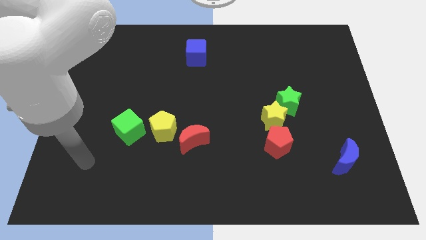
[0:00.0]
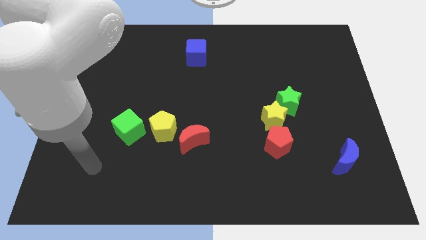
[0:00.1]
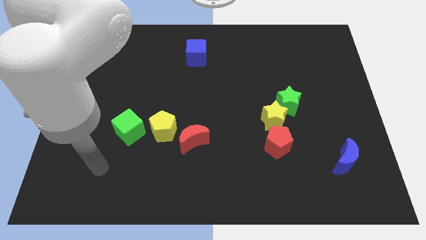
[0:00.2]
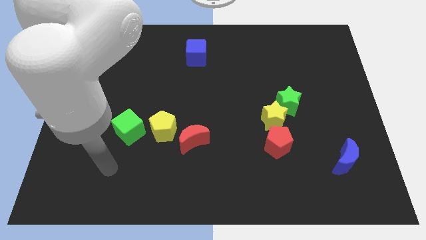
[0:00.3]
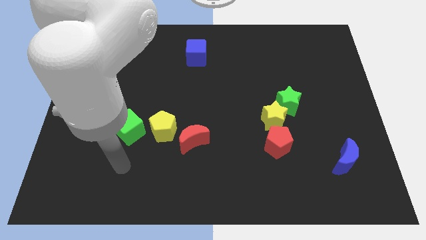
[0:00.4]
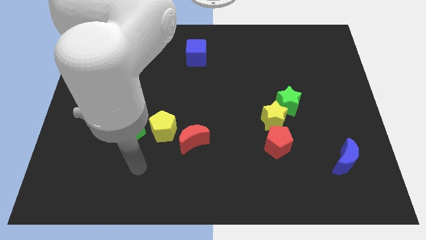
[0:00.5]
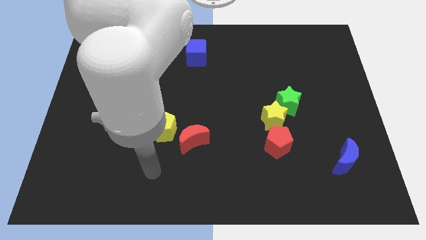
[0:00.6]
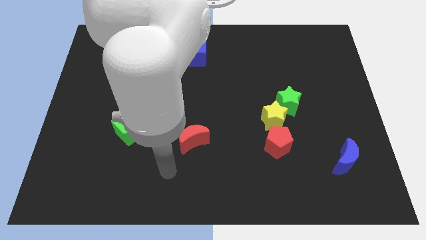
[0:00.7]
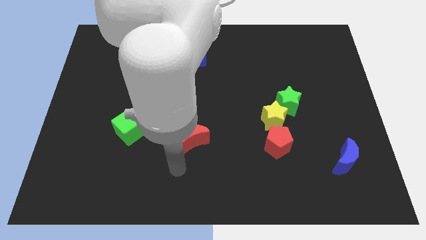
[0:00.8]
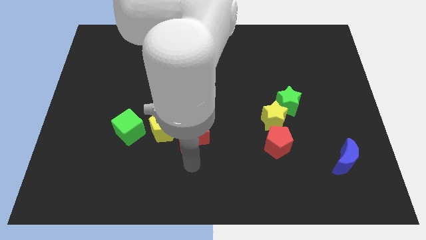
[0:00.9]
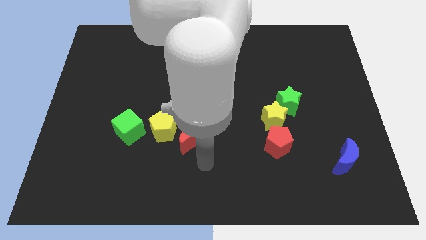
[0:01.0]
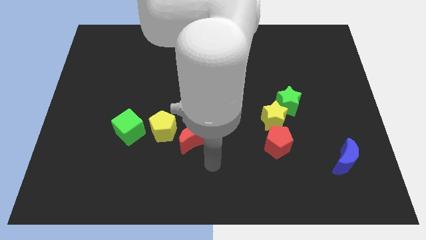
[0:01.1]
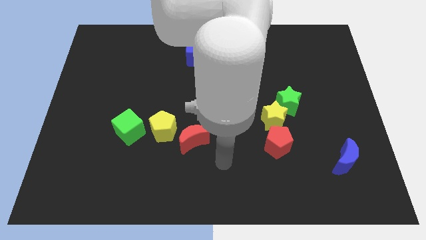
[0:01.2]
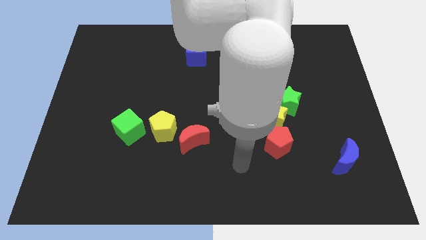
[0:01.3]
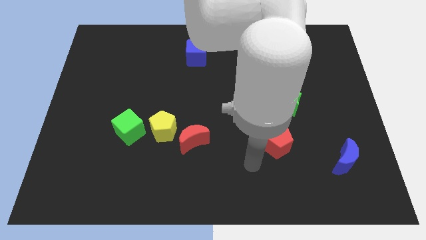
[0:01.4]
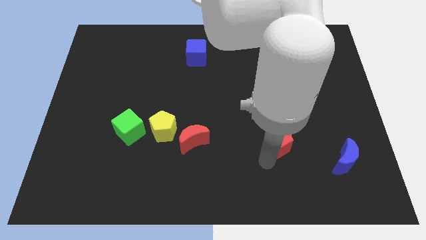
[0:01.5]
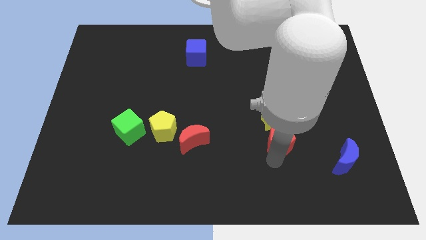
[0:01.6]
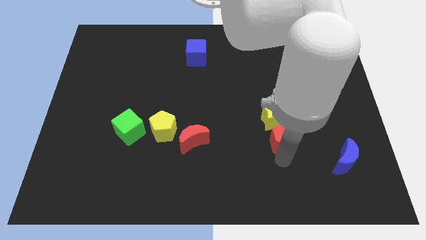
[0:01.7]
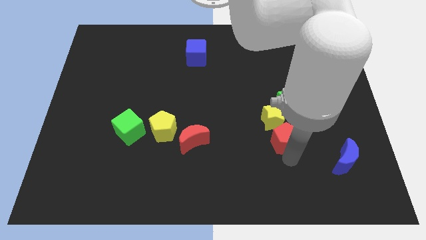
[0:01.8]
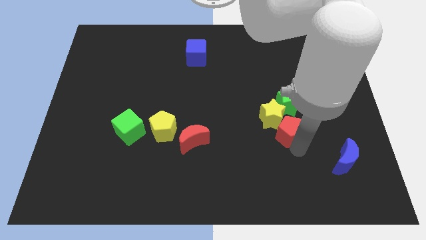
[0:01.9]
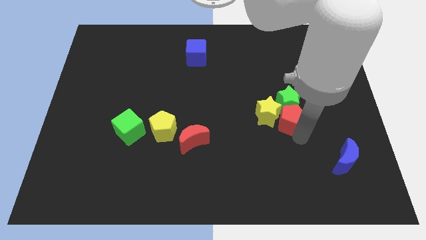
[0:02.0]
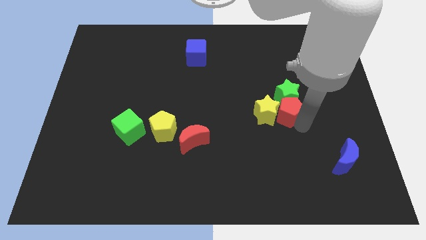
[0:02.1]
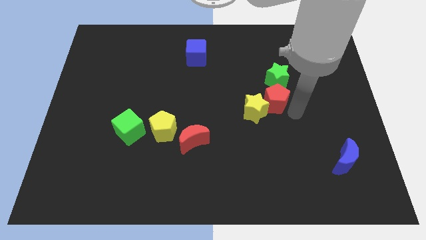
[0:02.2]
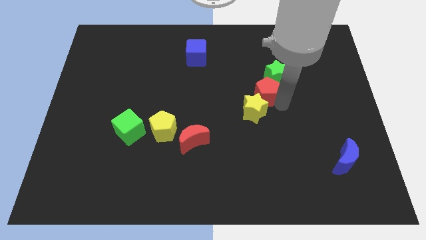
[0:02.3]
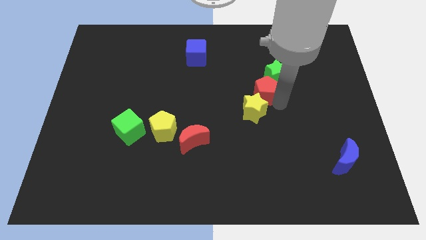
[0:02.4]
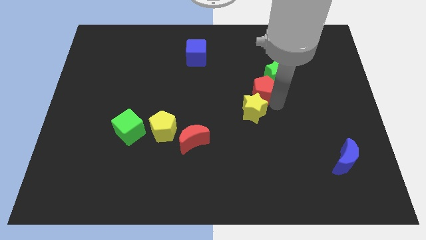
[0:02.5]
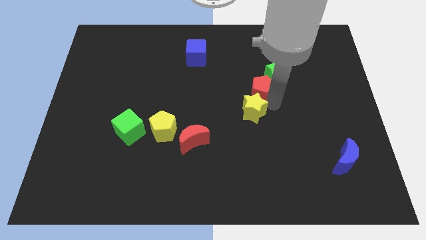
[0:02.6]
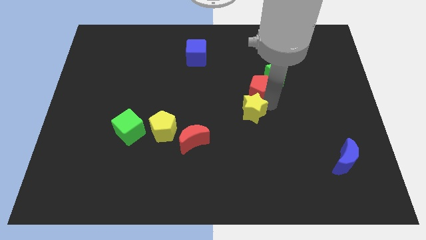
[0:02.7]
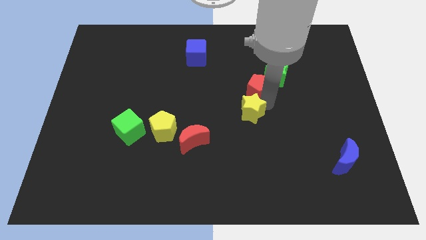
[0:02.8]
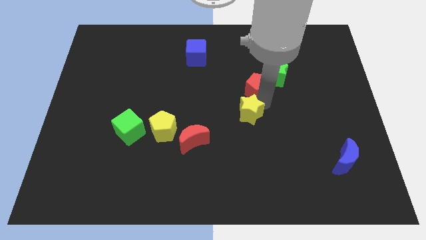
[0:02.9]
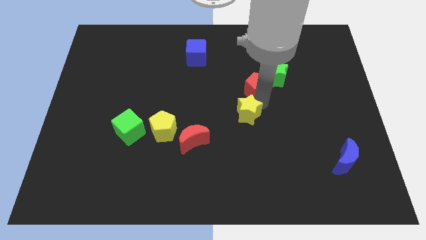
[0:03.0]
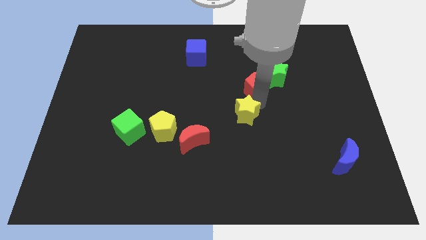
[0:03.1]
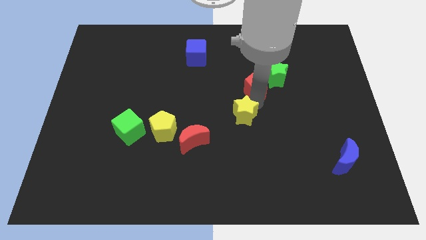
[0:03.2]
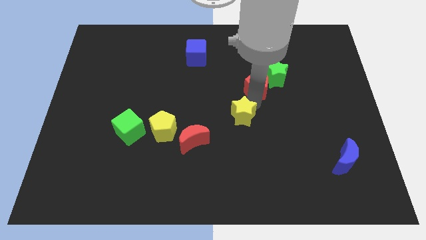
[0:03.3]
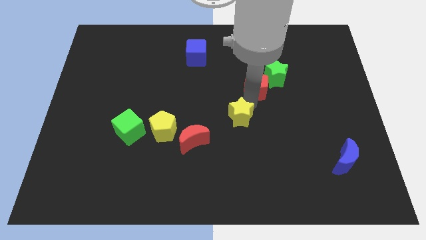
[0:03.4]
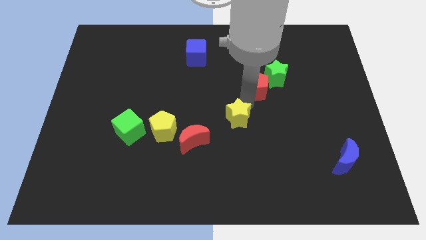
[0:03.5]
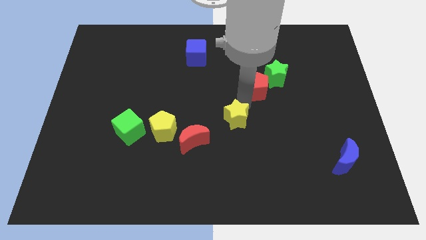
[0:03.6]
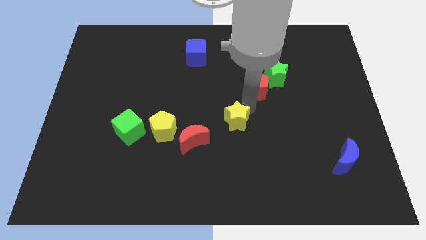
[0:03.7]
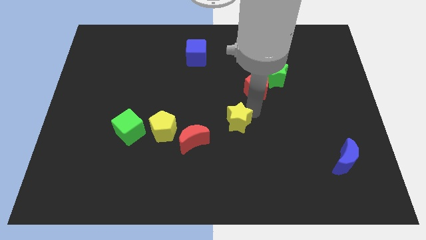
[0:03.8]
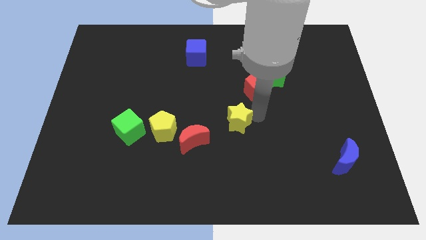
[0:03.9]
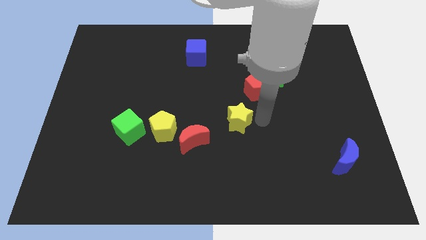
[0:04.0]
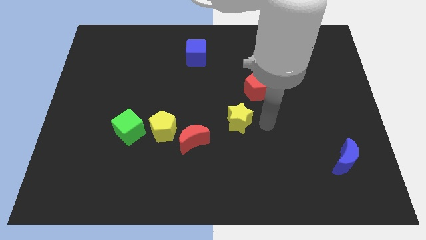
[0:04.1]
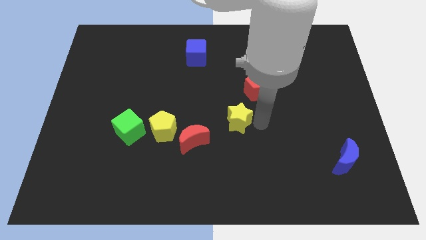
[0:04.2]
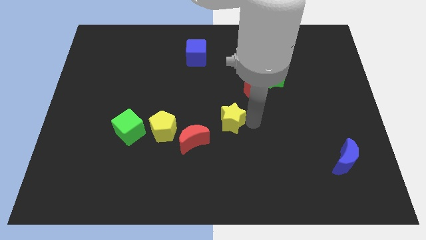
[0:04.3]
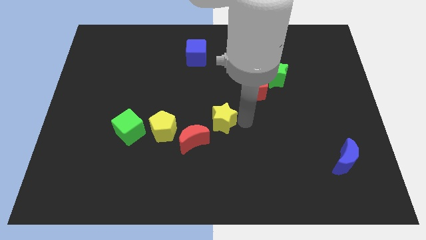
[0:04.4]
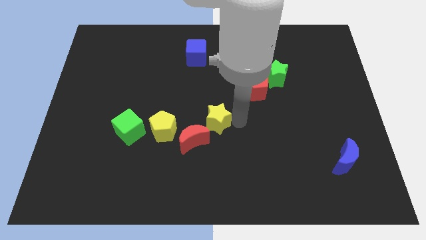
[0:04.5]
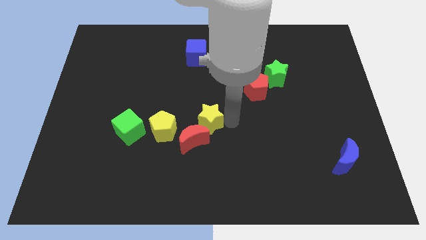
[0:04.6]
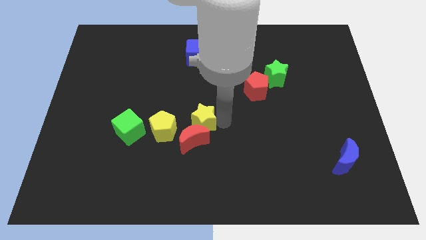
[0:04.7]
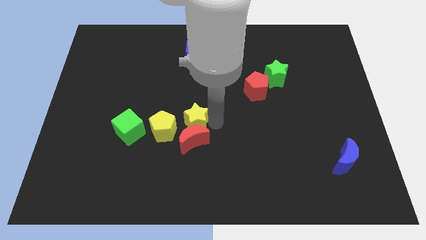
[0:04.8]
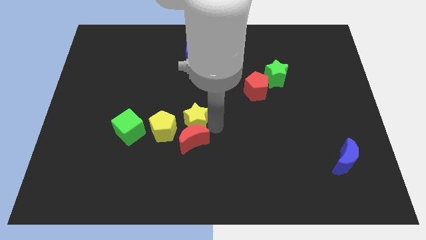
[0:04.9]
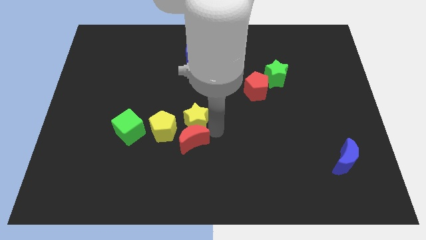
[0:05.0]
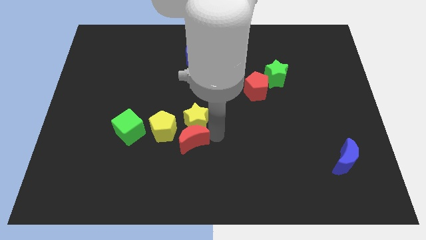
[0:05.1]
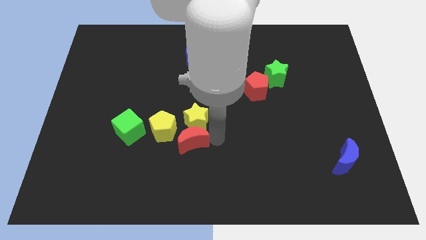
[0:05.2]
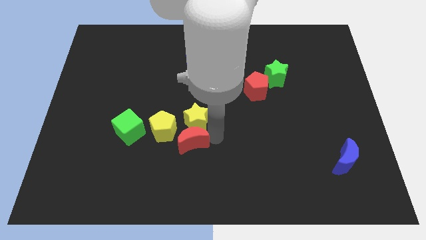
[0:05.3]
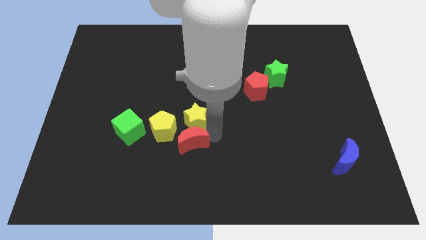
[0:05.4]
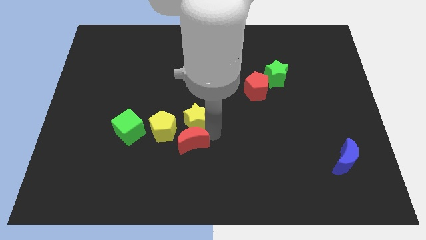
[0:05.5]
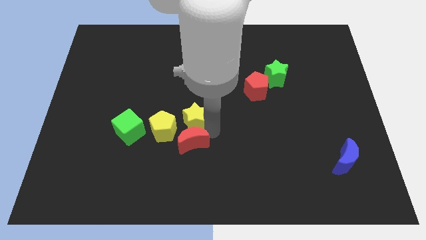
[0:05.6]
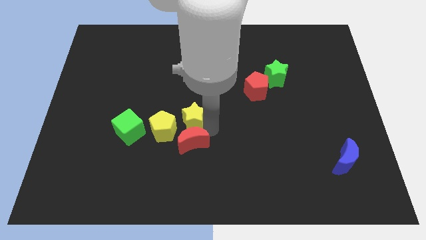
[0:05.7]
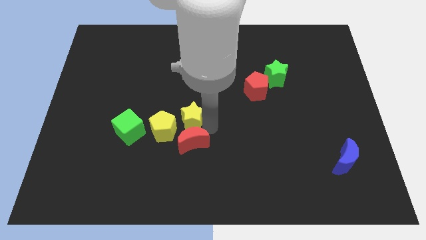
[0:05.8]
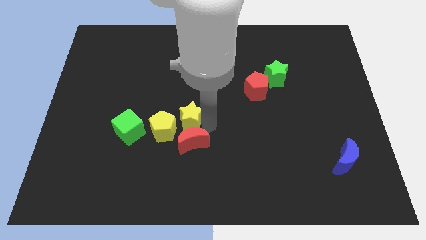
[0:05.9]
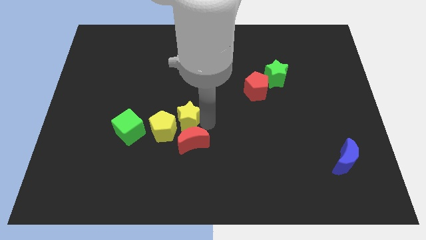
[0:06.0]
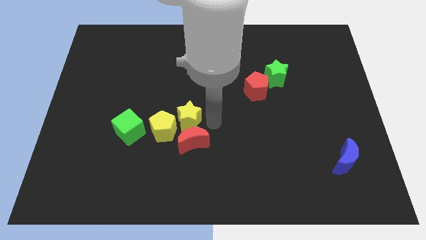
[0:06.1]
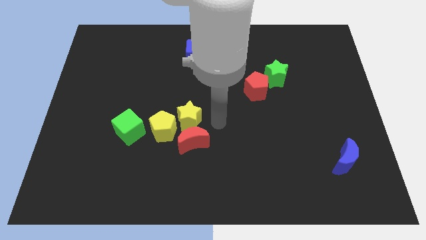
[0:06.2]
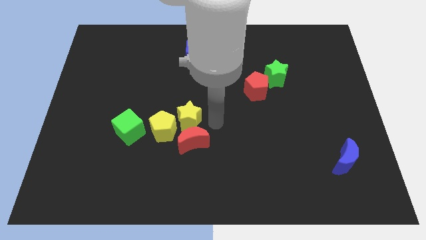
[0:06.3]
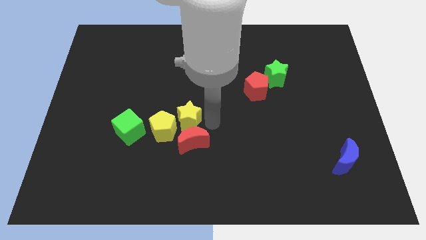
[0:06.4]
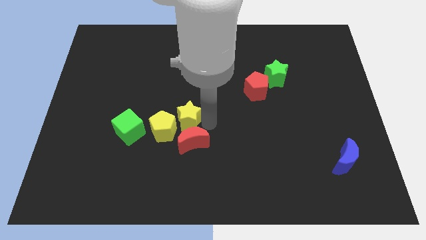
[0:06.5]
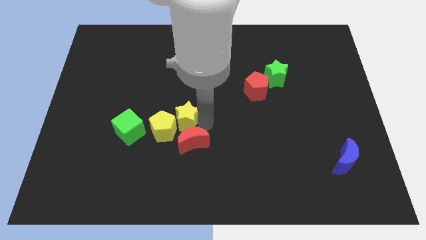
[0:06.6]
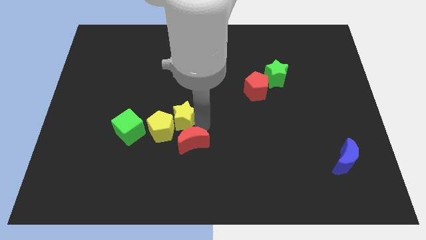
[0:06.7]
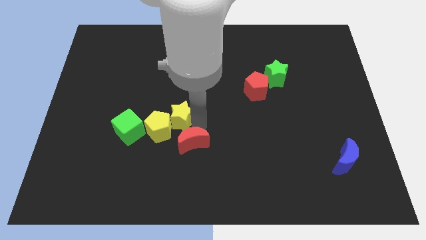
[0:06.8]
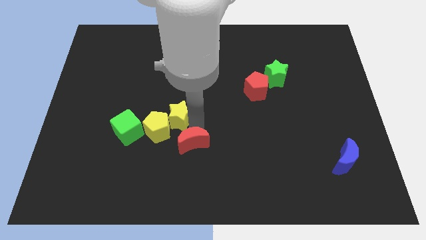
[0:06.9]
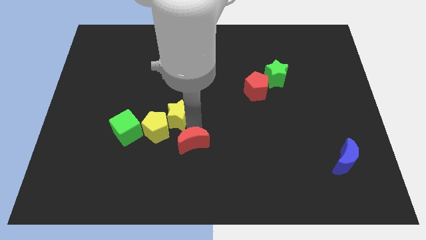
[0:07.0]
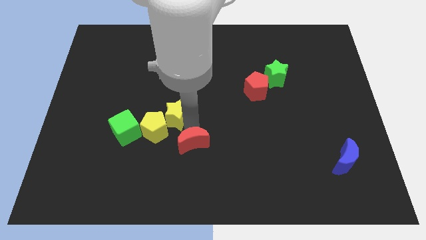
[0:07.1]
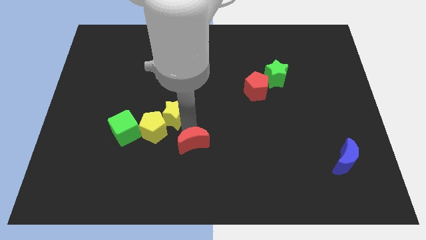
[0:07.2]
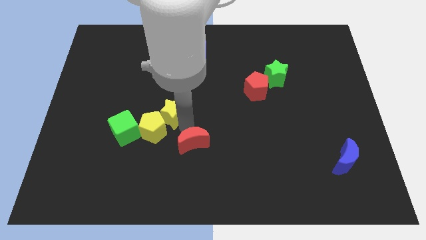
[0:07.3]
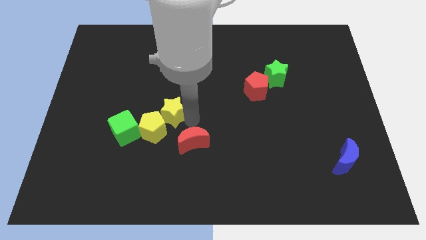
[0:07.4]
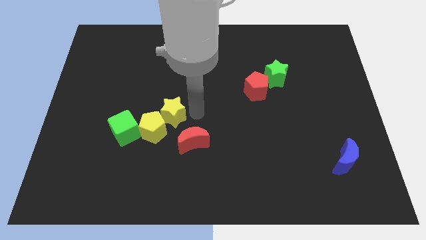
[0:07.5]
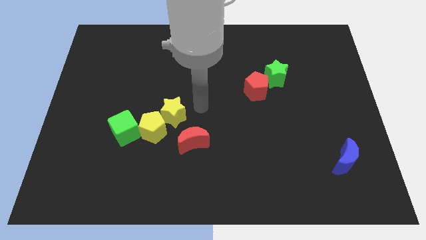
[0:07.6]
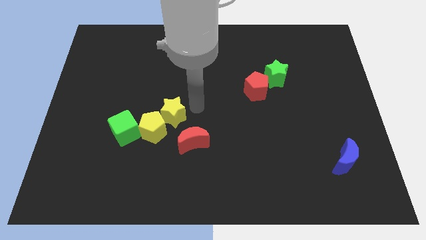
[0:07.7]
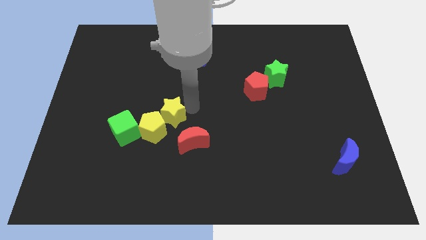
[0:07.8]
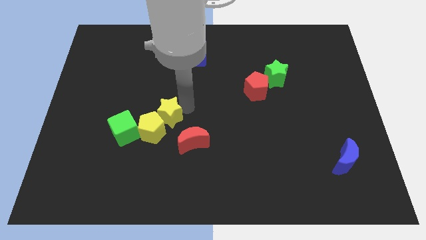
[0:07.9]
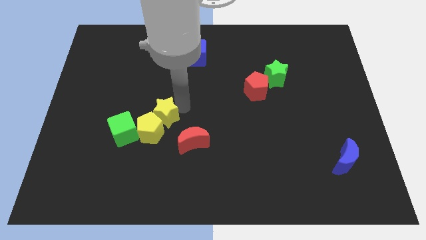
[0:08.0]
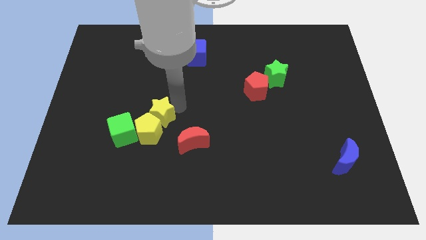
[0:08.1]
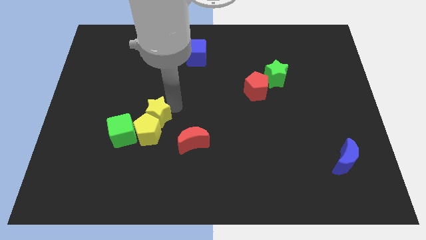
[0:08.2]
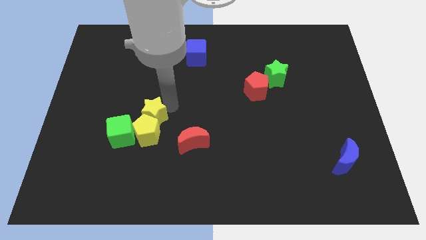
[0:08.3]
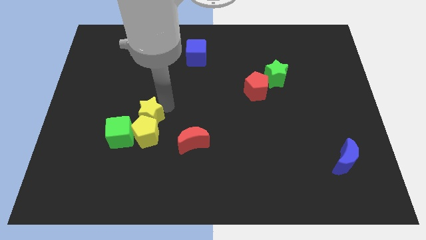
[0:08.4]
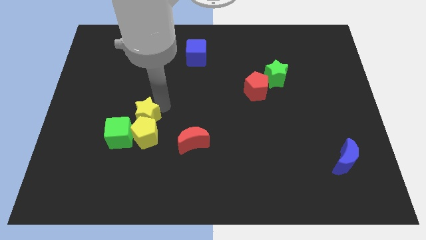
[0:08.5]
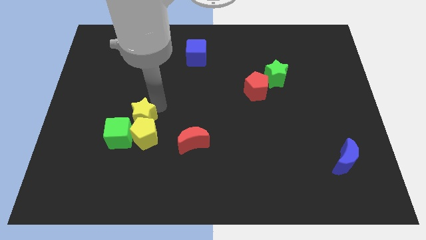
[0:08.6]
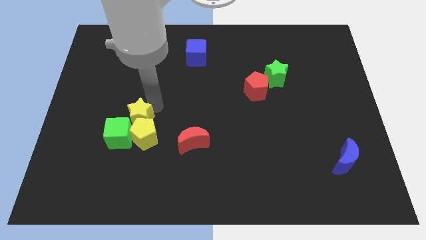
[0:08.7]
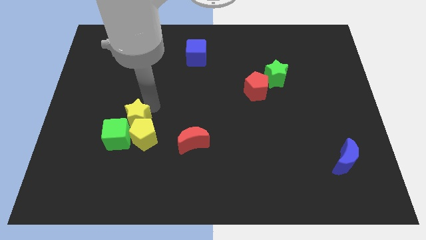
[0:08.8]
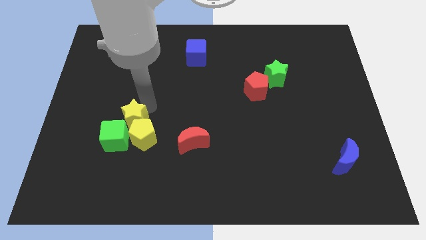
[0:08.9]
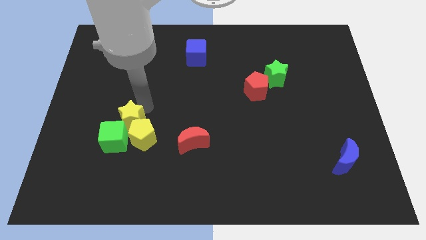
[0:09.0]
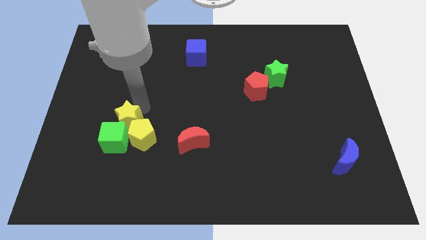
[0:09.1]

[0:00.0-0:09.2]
push the yellow star close to the green cube
